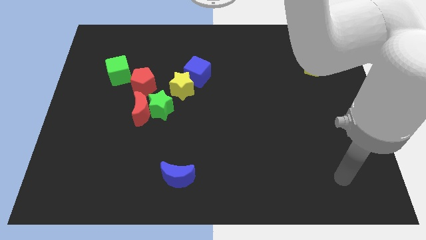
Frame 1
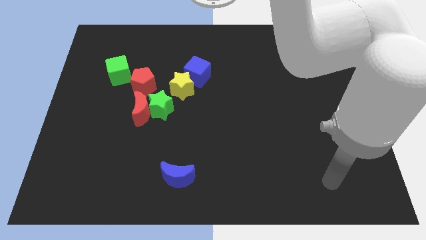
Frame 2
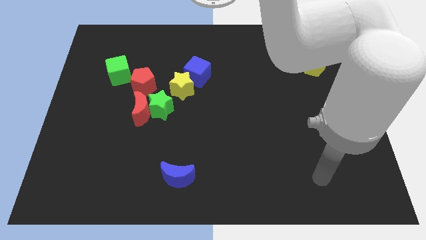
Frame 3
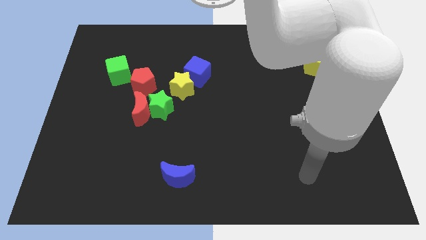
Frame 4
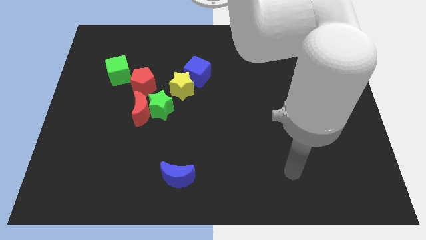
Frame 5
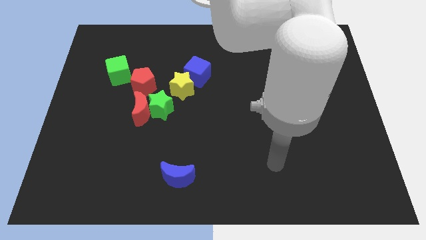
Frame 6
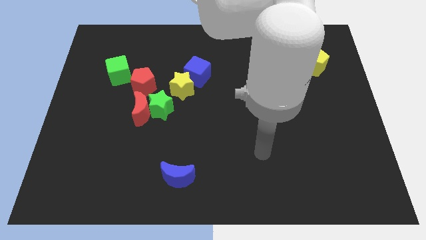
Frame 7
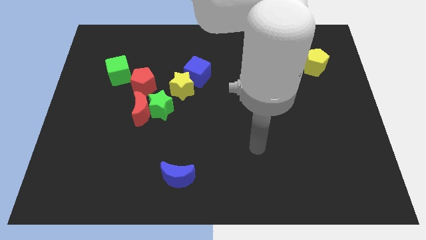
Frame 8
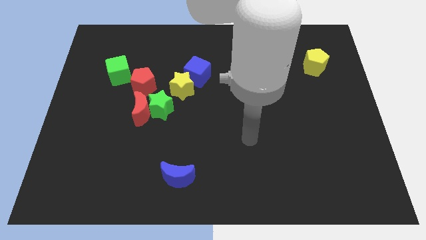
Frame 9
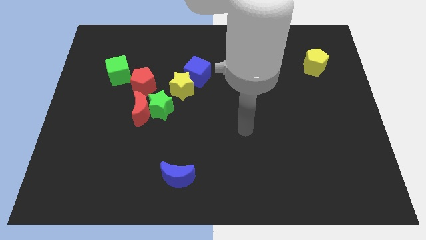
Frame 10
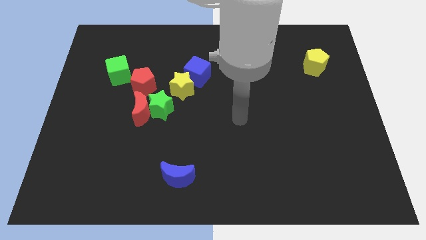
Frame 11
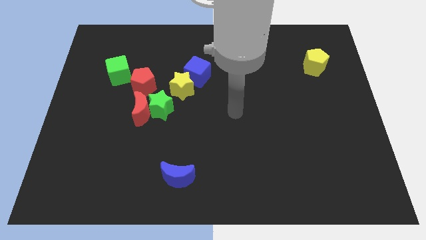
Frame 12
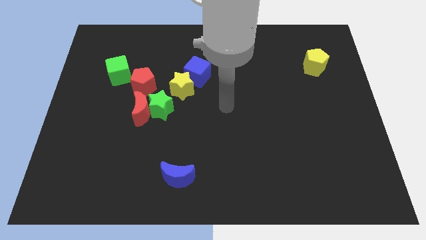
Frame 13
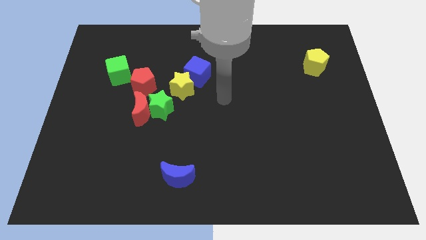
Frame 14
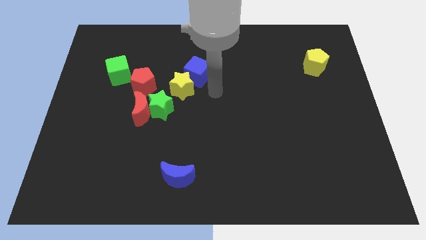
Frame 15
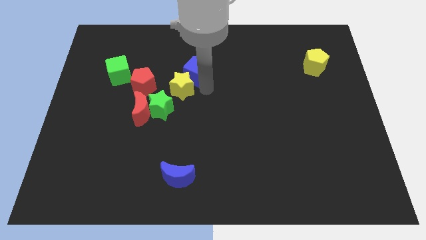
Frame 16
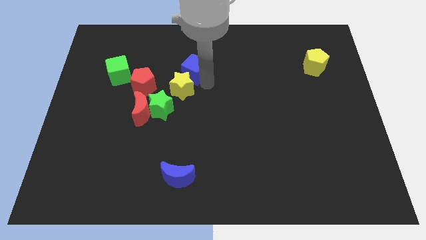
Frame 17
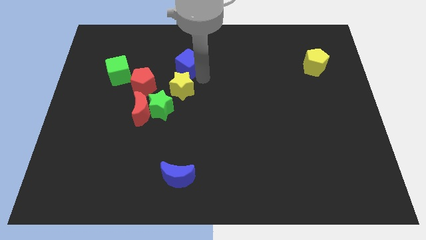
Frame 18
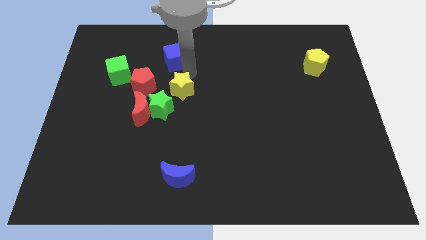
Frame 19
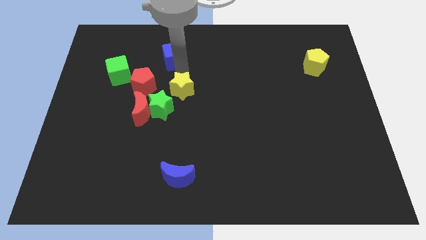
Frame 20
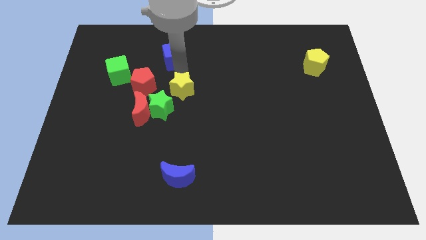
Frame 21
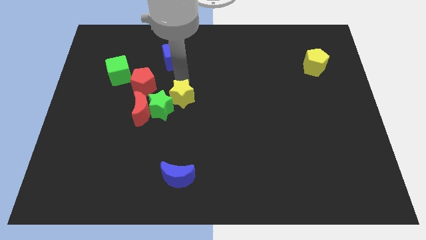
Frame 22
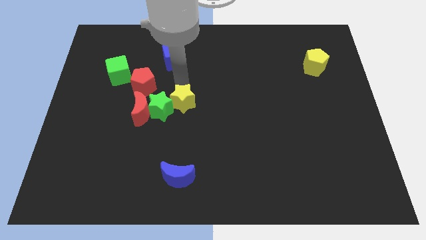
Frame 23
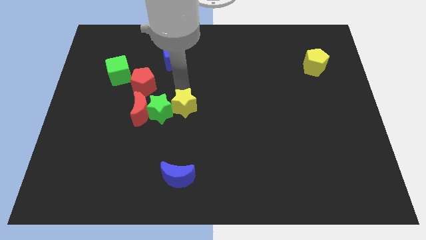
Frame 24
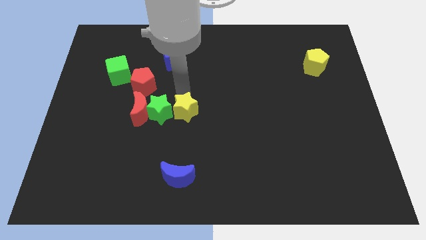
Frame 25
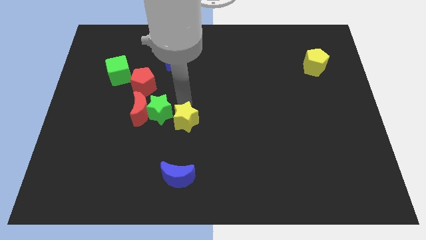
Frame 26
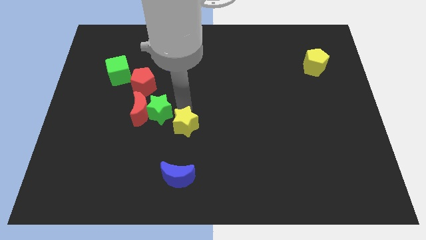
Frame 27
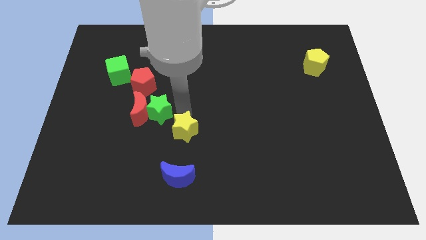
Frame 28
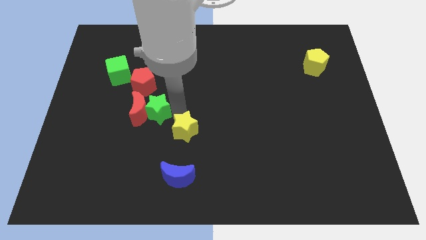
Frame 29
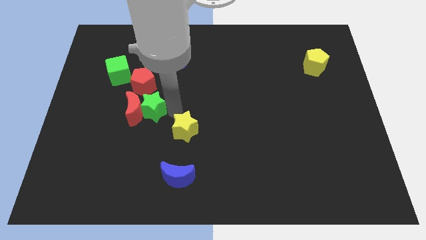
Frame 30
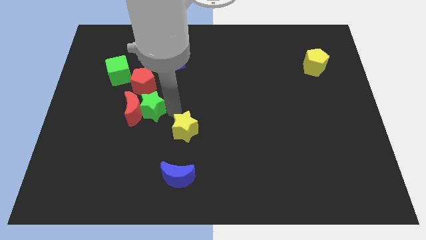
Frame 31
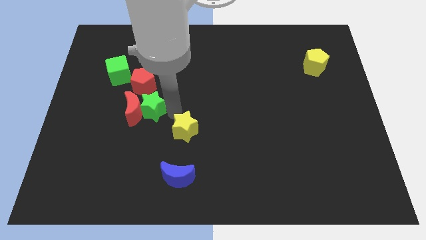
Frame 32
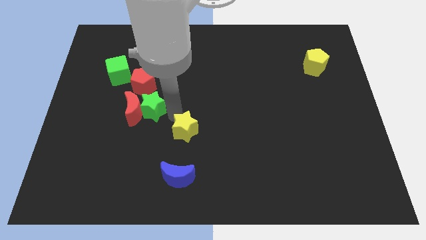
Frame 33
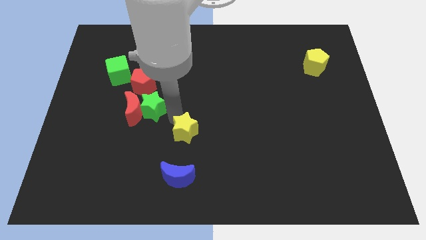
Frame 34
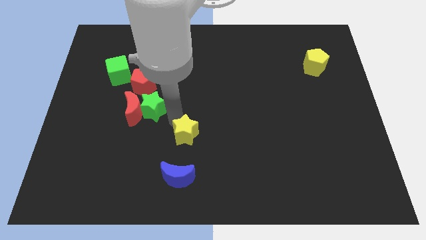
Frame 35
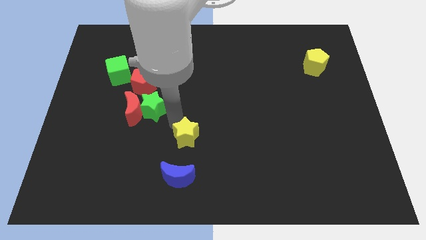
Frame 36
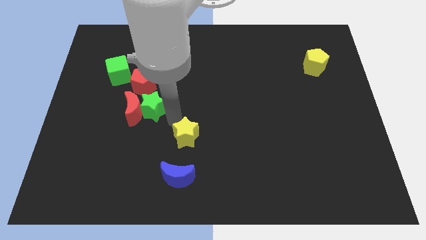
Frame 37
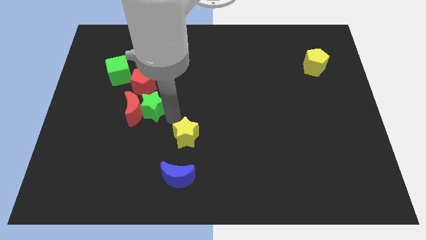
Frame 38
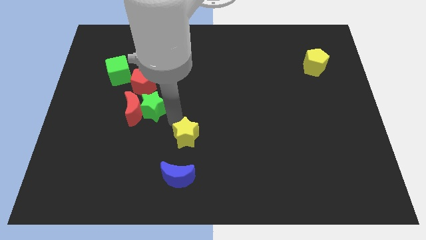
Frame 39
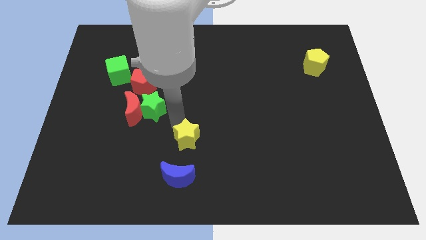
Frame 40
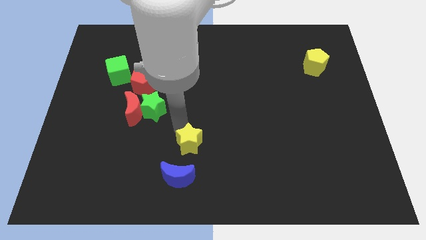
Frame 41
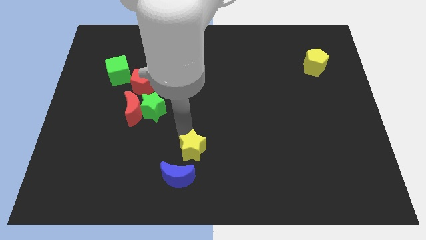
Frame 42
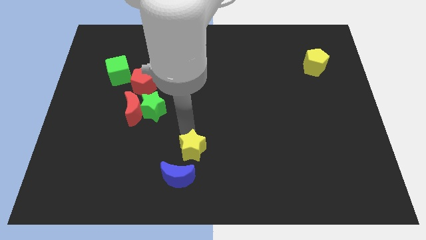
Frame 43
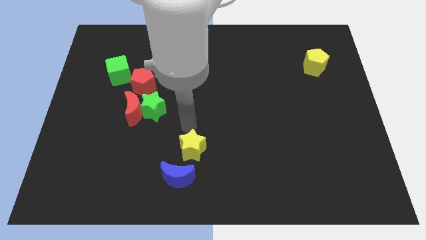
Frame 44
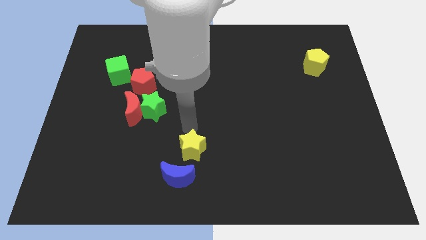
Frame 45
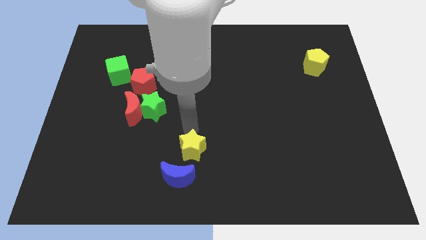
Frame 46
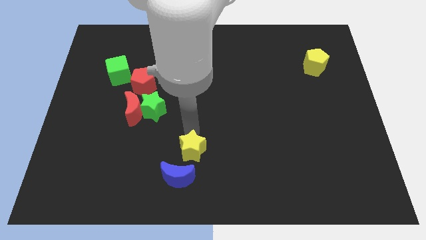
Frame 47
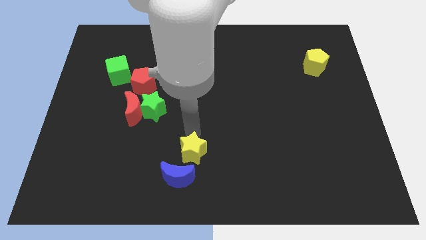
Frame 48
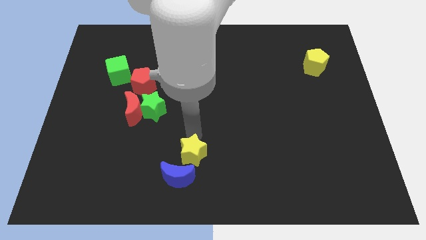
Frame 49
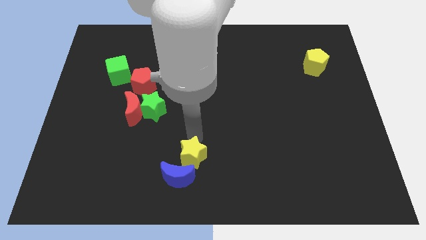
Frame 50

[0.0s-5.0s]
push the yellow star to the bottom side

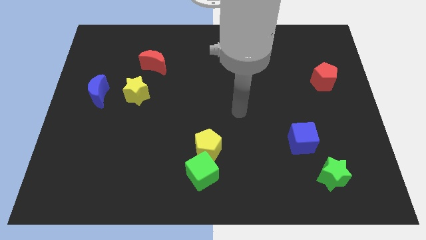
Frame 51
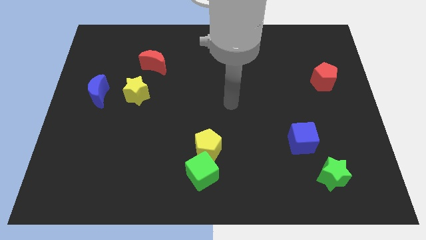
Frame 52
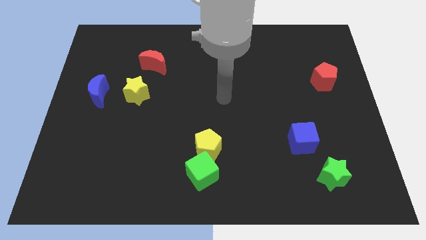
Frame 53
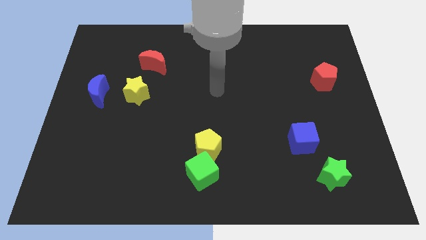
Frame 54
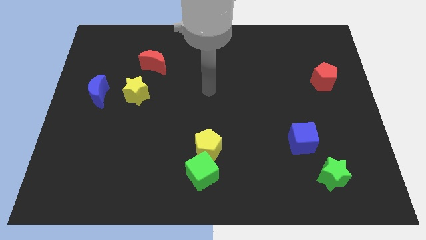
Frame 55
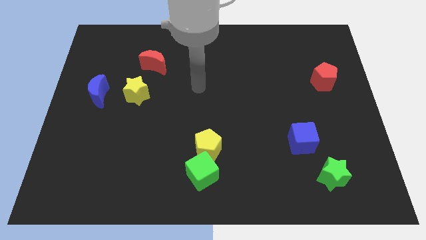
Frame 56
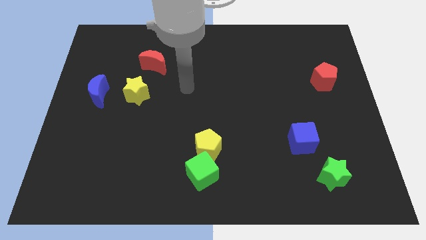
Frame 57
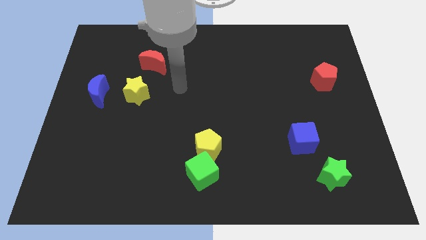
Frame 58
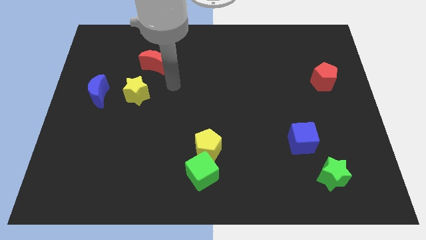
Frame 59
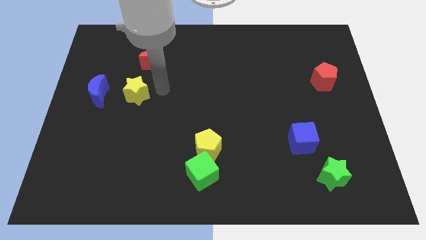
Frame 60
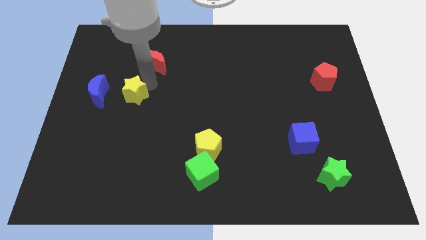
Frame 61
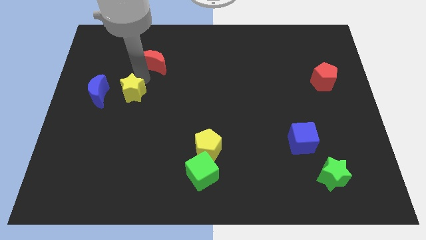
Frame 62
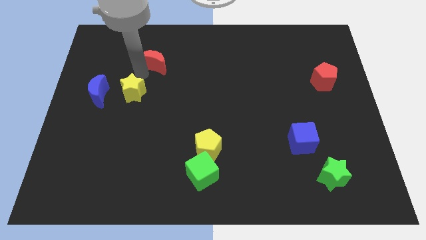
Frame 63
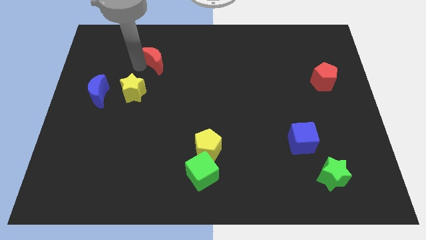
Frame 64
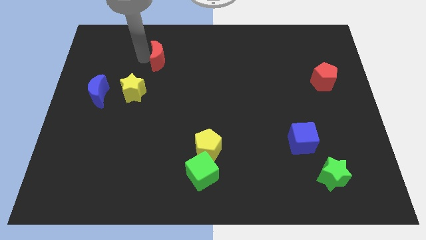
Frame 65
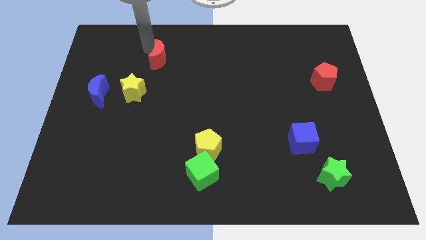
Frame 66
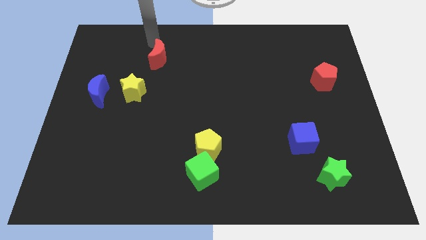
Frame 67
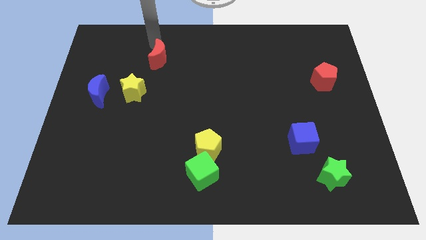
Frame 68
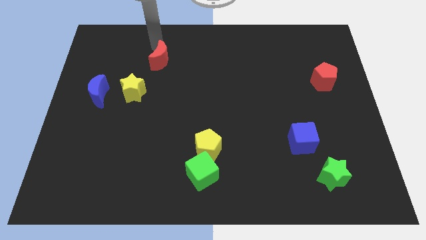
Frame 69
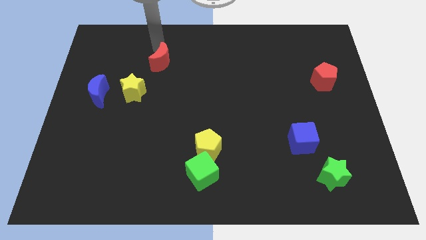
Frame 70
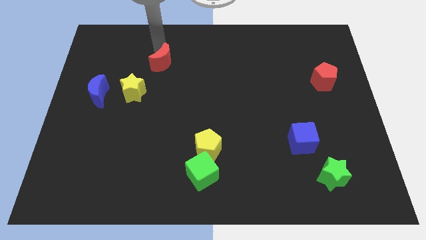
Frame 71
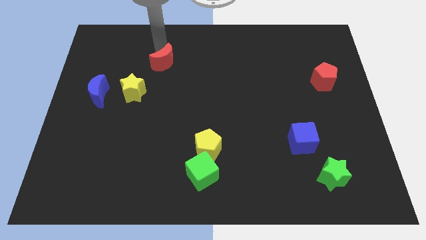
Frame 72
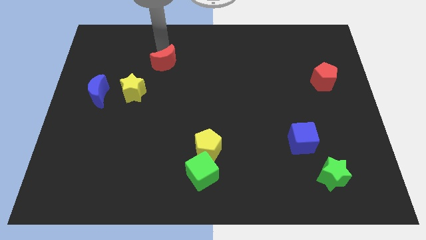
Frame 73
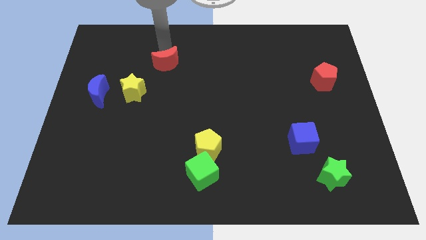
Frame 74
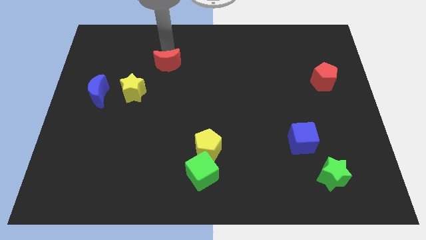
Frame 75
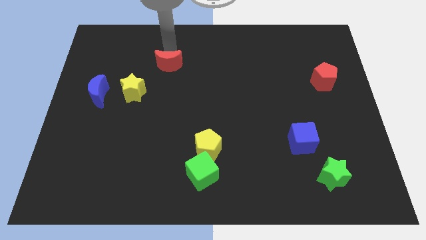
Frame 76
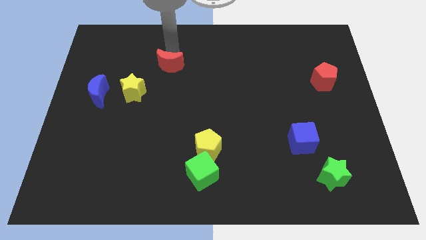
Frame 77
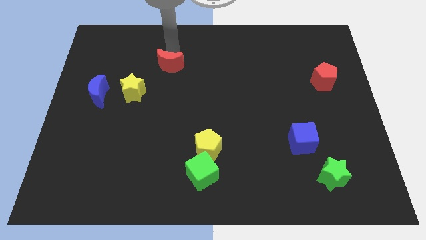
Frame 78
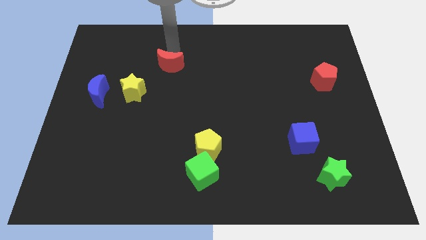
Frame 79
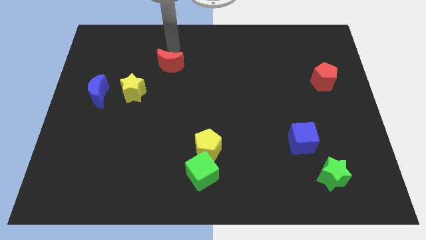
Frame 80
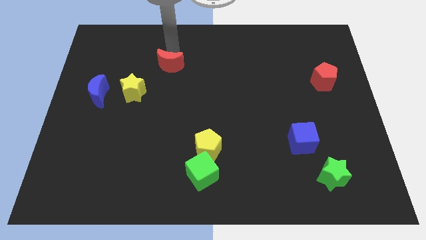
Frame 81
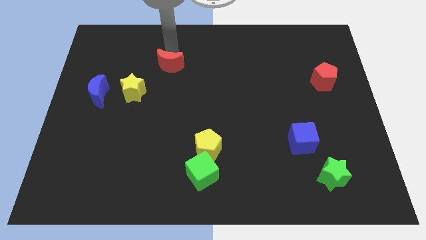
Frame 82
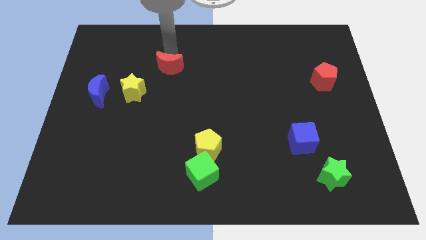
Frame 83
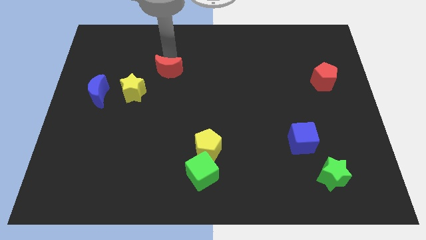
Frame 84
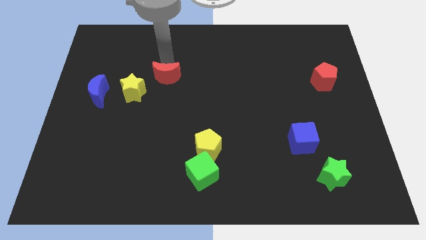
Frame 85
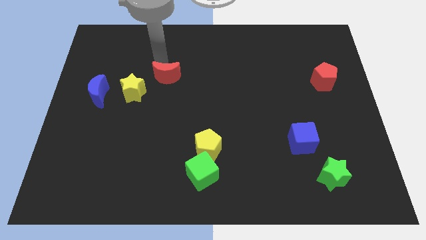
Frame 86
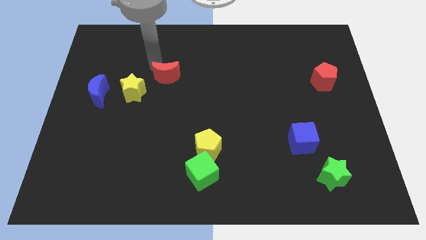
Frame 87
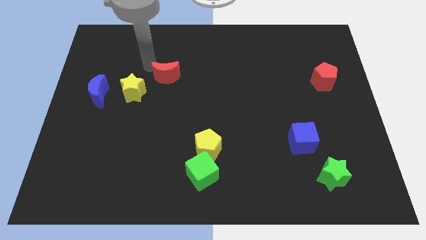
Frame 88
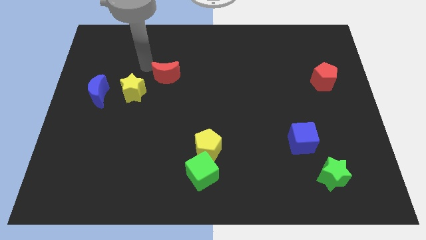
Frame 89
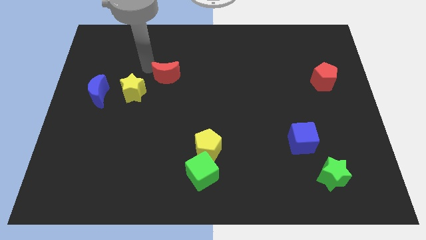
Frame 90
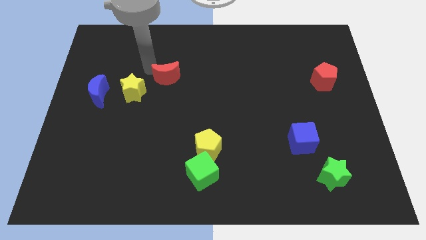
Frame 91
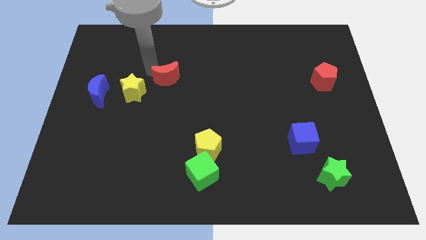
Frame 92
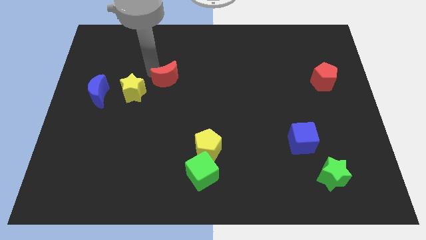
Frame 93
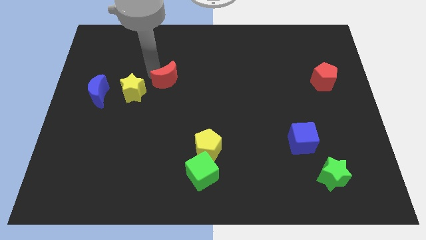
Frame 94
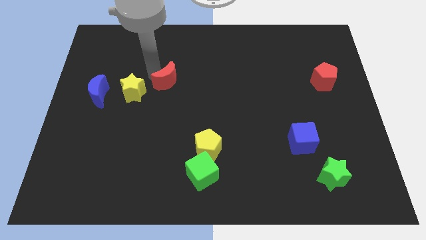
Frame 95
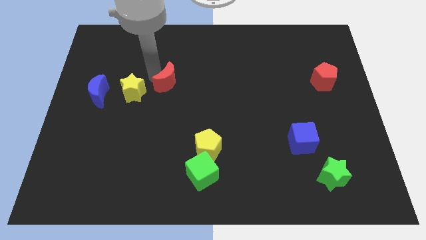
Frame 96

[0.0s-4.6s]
slide the red moon to the center
